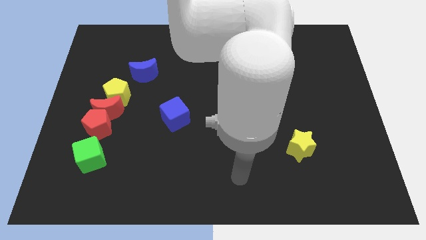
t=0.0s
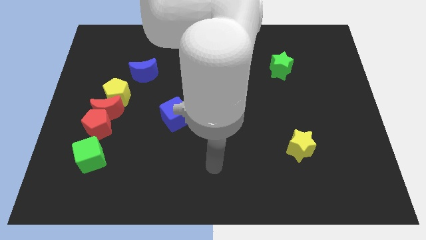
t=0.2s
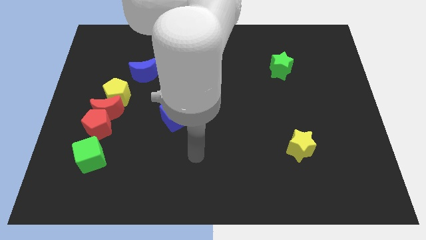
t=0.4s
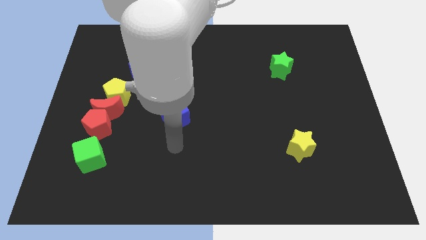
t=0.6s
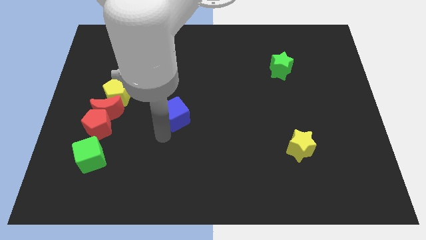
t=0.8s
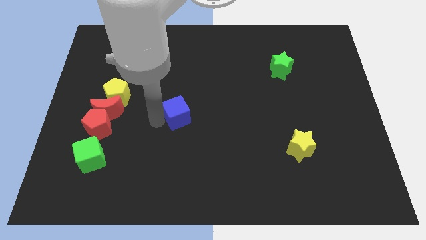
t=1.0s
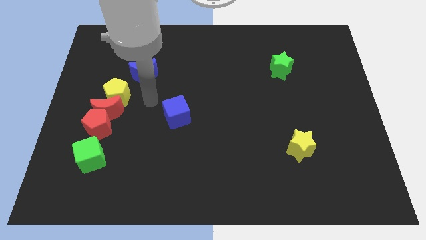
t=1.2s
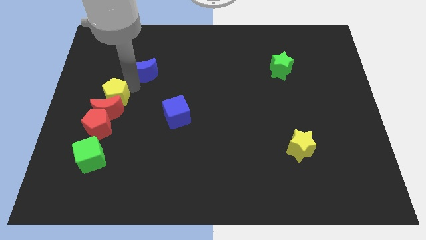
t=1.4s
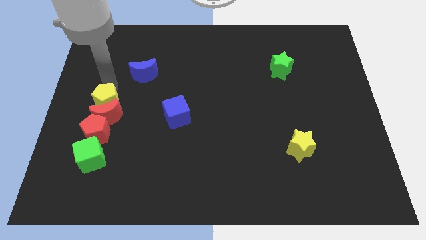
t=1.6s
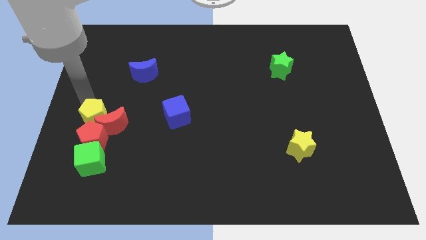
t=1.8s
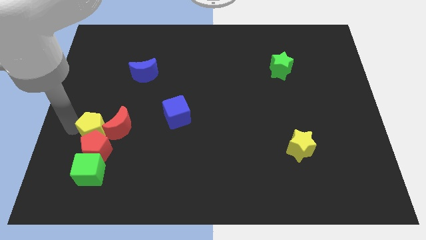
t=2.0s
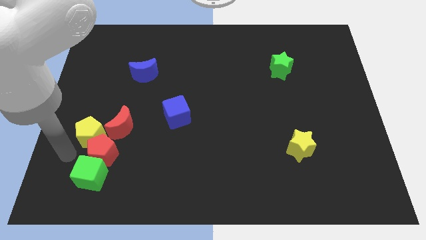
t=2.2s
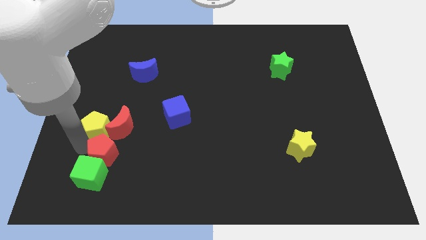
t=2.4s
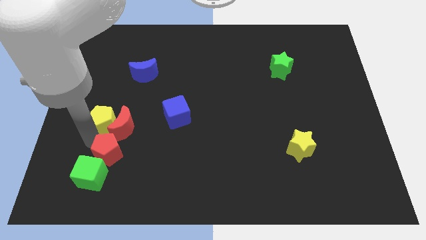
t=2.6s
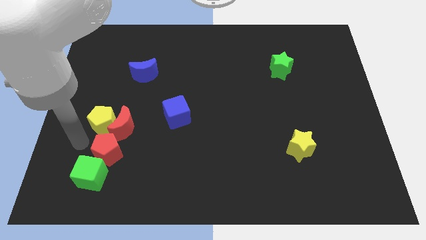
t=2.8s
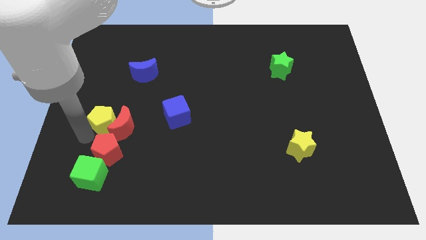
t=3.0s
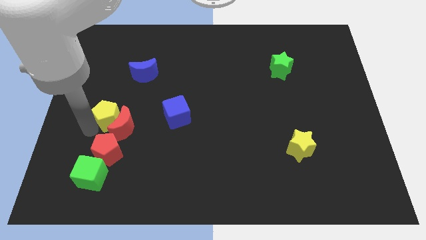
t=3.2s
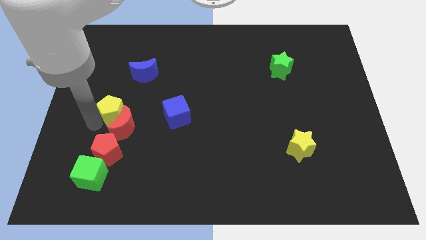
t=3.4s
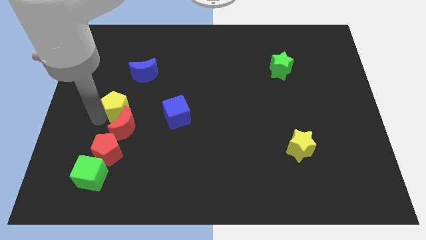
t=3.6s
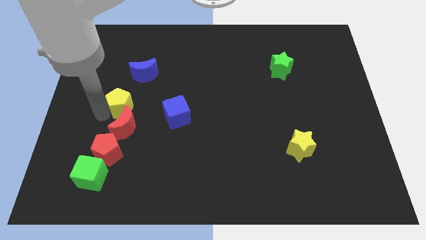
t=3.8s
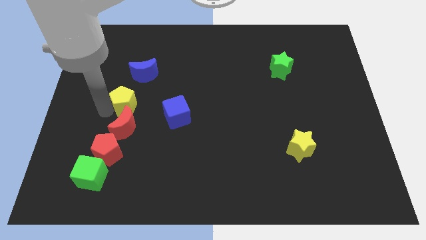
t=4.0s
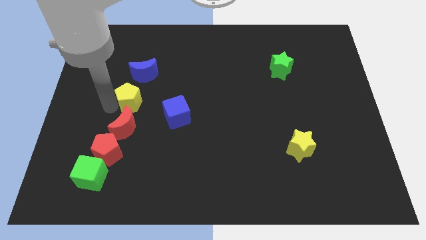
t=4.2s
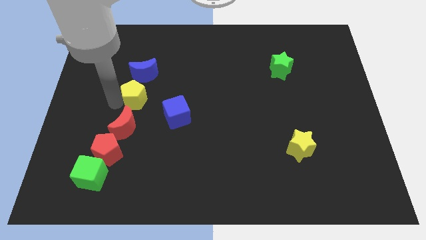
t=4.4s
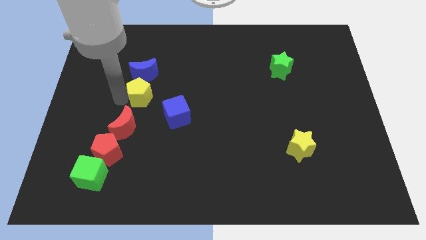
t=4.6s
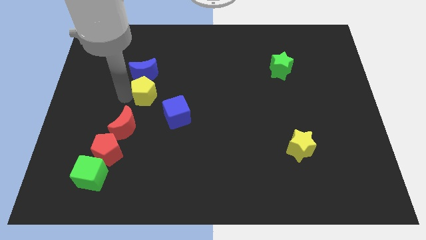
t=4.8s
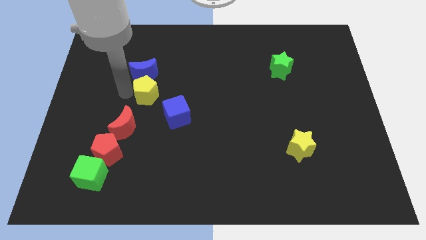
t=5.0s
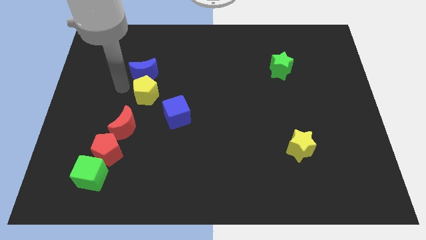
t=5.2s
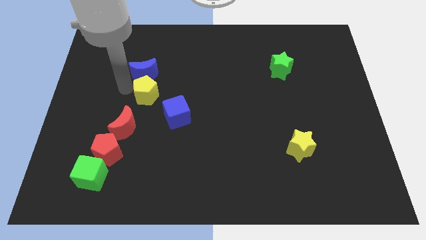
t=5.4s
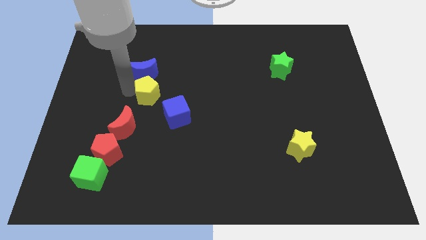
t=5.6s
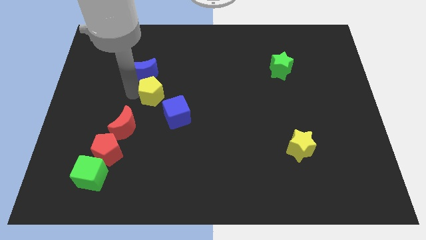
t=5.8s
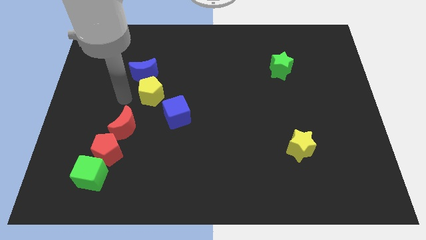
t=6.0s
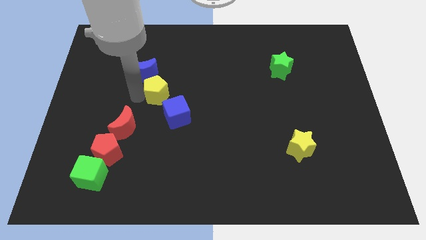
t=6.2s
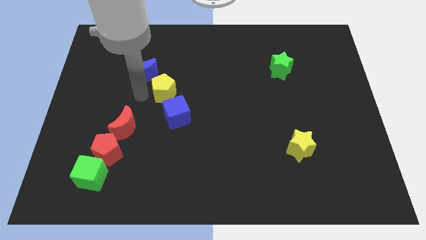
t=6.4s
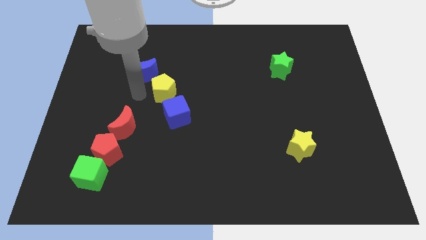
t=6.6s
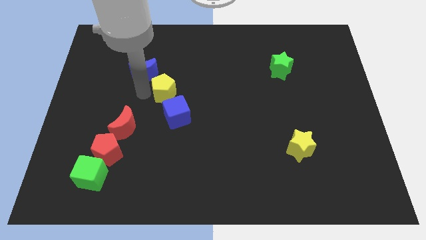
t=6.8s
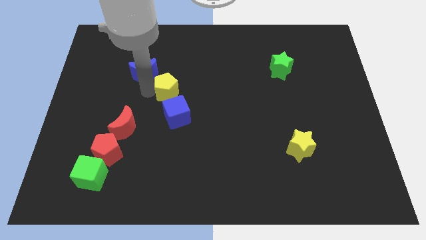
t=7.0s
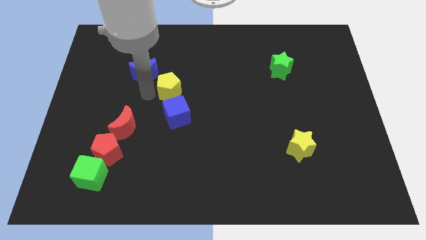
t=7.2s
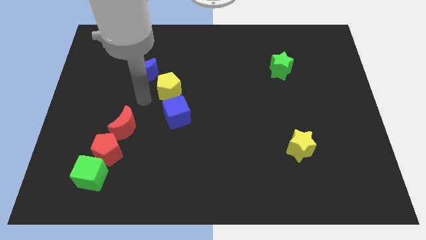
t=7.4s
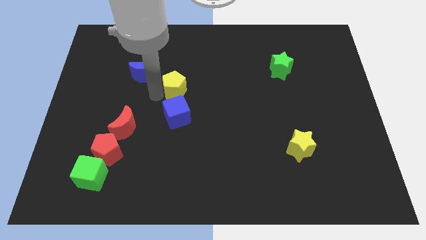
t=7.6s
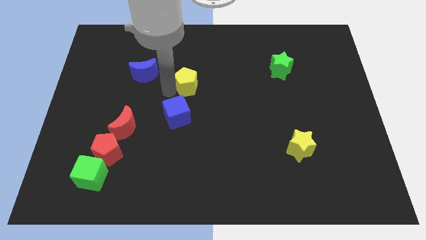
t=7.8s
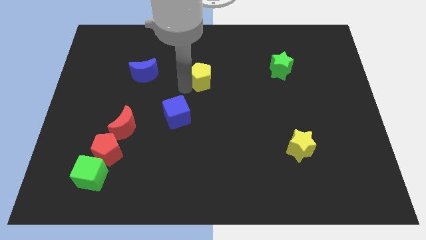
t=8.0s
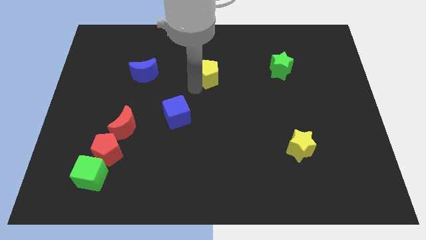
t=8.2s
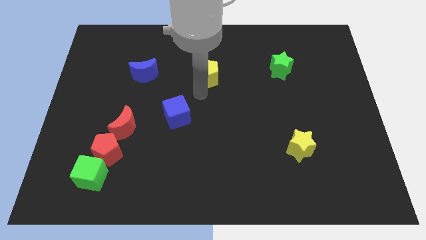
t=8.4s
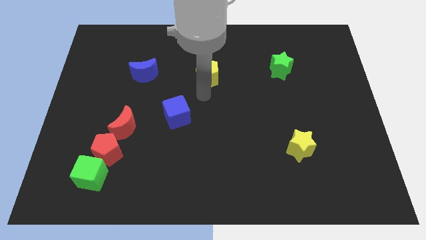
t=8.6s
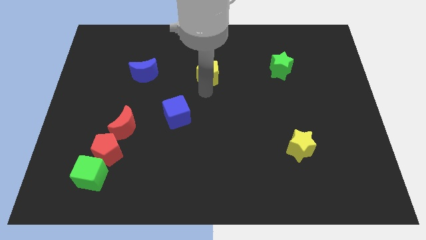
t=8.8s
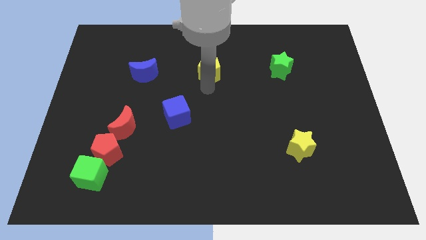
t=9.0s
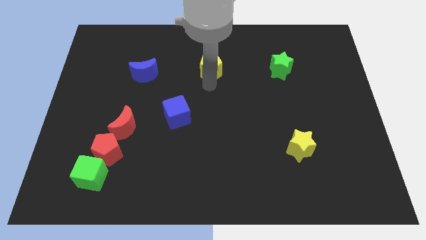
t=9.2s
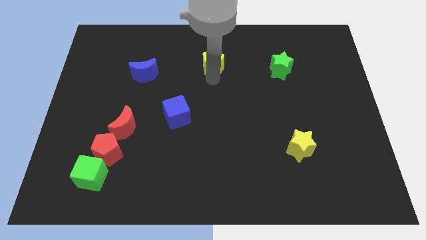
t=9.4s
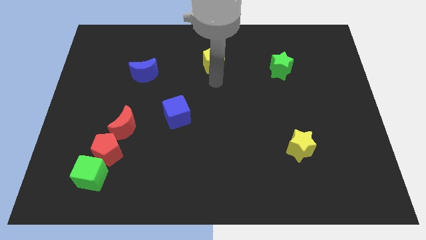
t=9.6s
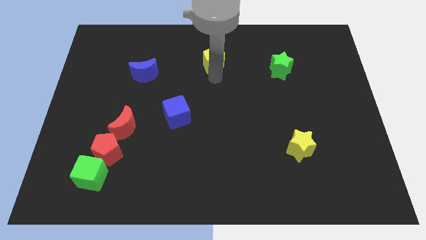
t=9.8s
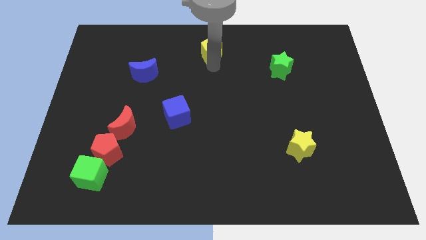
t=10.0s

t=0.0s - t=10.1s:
put the yellow pentagon to the top side

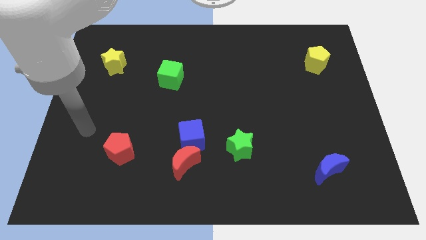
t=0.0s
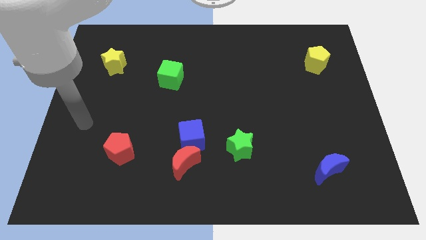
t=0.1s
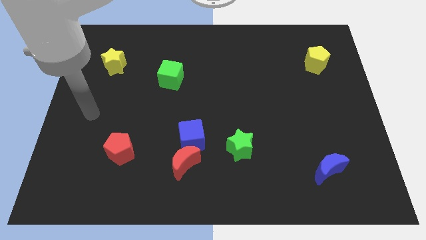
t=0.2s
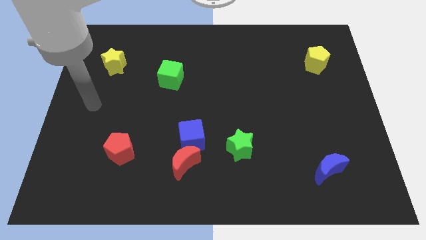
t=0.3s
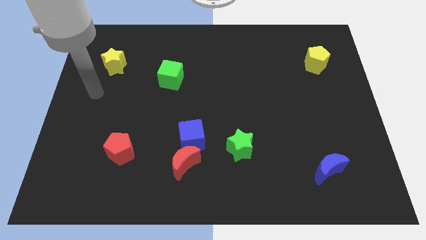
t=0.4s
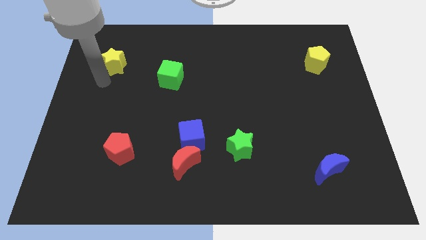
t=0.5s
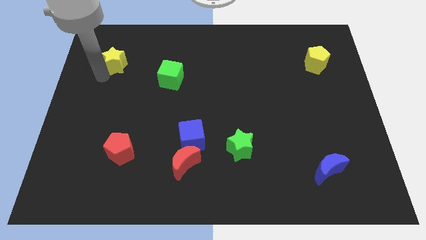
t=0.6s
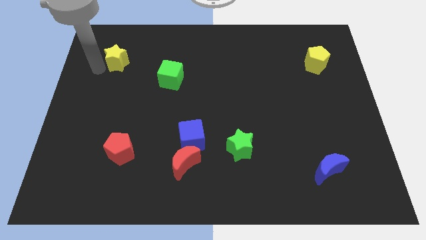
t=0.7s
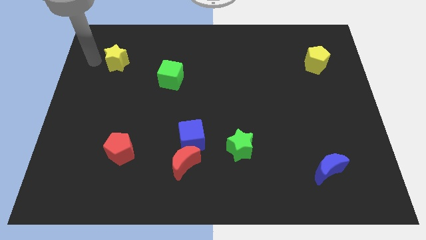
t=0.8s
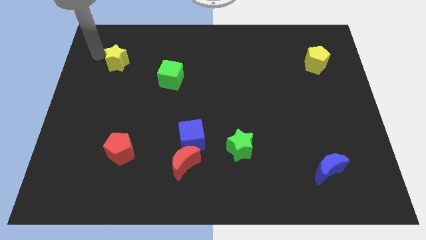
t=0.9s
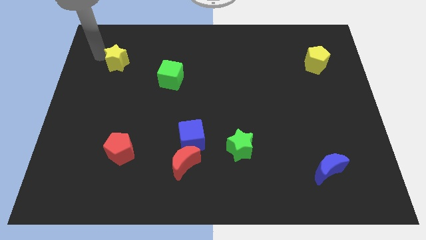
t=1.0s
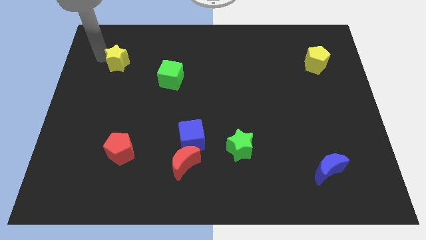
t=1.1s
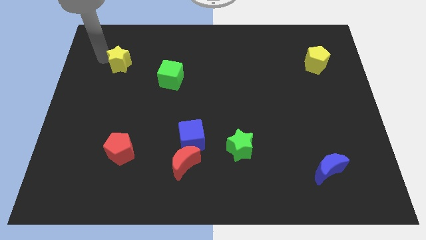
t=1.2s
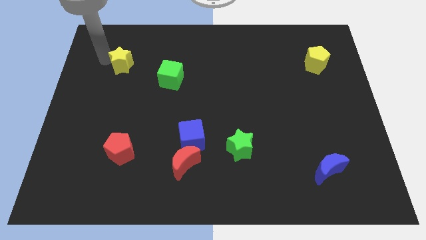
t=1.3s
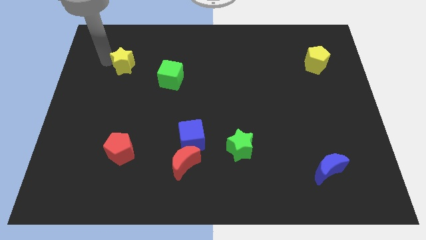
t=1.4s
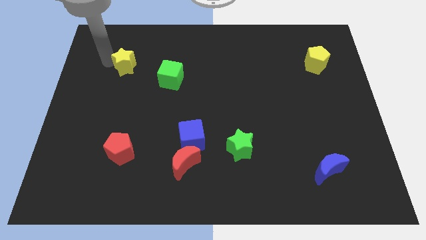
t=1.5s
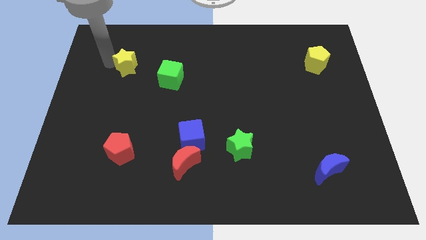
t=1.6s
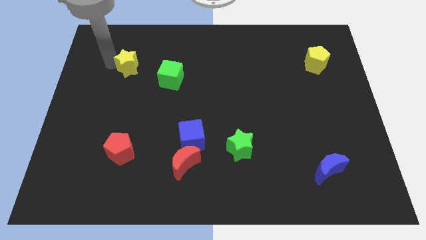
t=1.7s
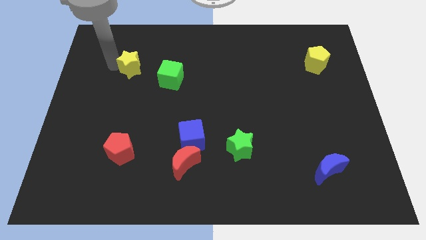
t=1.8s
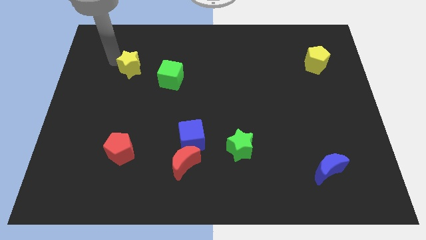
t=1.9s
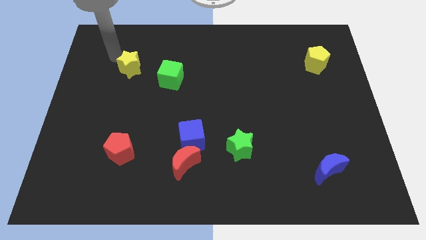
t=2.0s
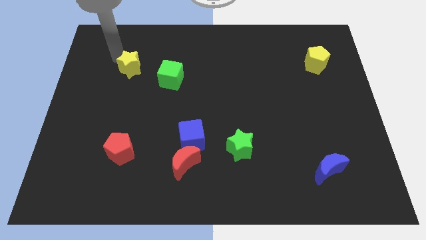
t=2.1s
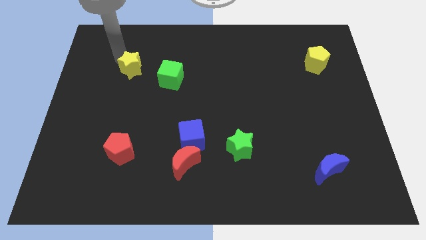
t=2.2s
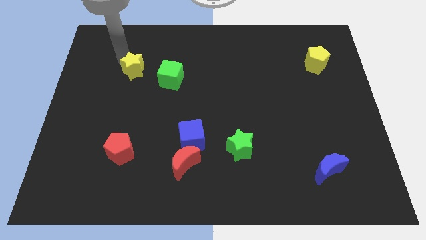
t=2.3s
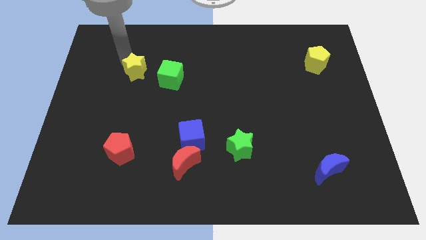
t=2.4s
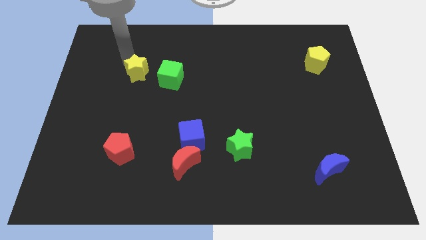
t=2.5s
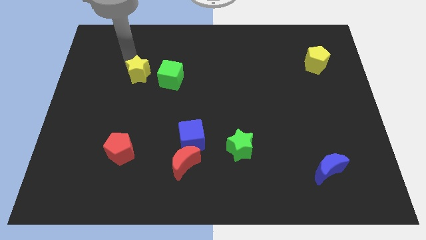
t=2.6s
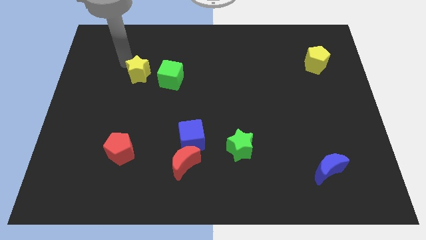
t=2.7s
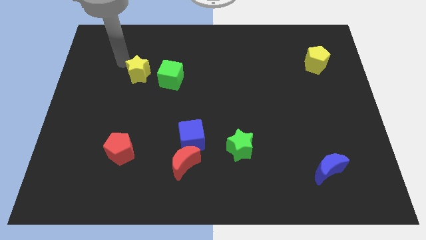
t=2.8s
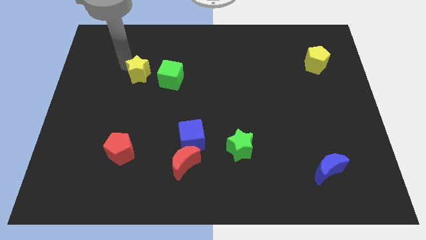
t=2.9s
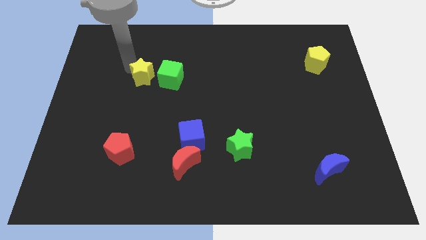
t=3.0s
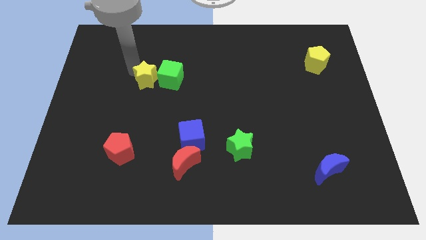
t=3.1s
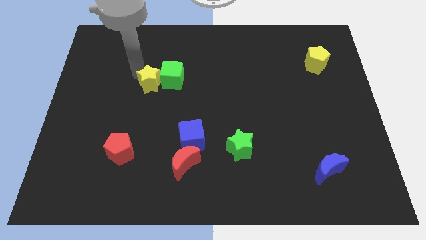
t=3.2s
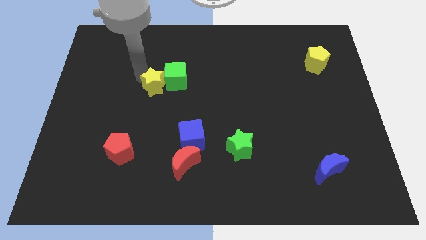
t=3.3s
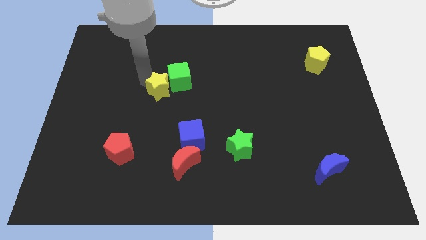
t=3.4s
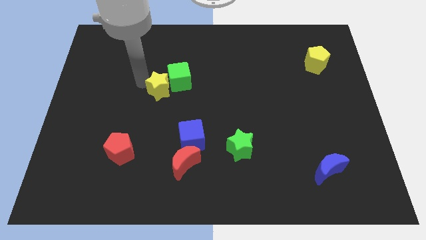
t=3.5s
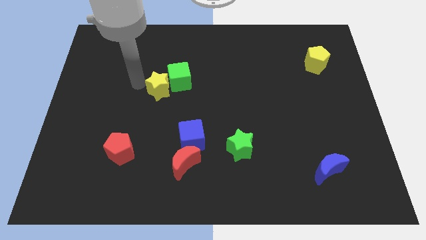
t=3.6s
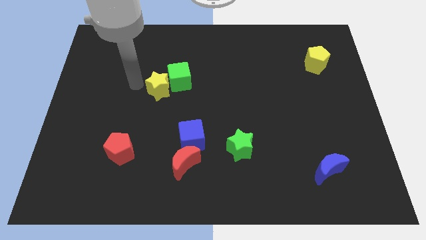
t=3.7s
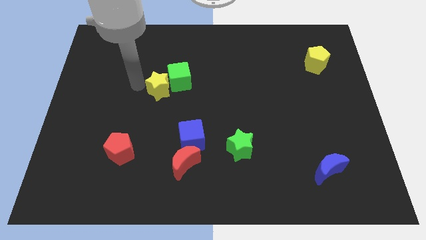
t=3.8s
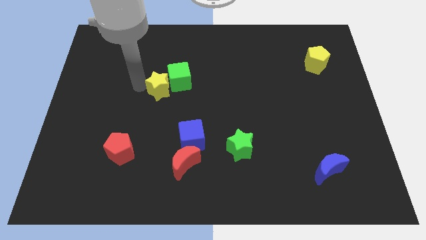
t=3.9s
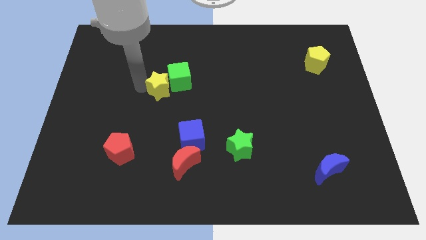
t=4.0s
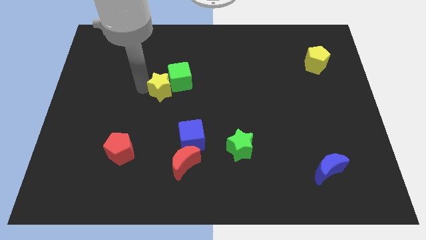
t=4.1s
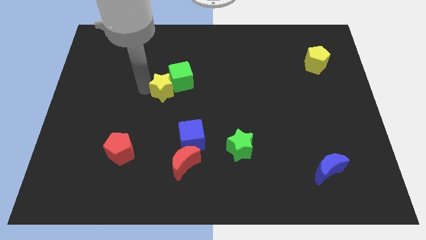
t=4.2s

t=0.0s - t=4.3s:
move the yellow star to the middle of the board
